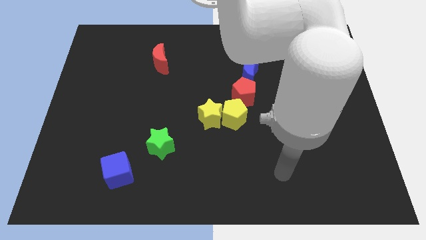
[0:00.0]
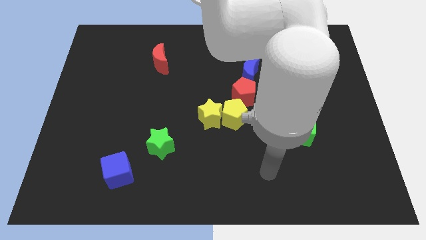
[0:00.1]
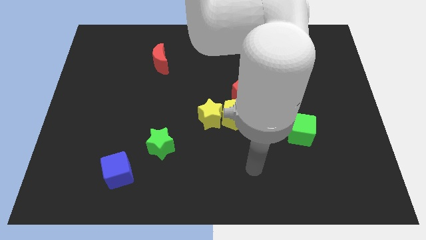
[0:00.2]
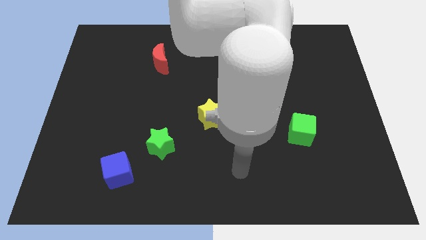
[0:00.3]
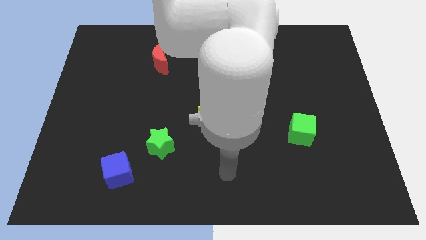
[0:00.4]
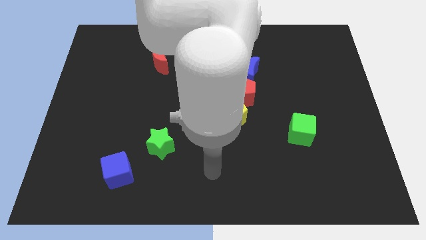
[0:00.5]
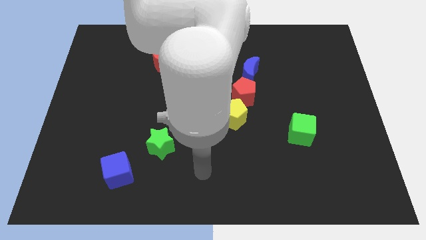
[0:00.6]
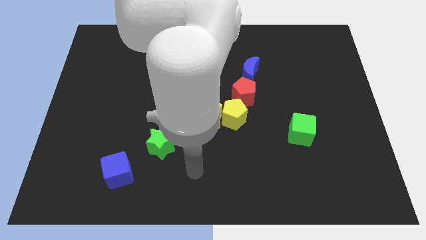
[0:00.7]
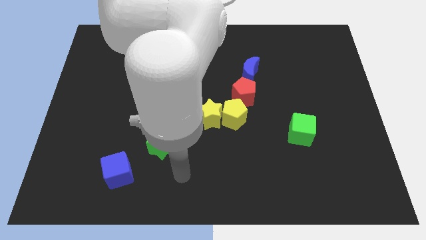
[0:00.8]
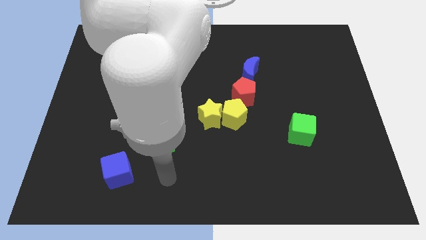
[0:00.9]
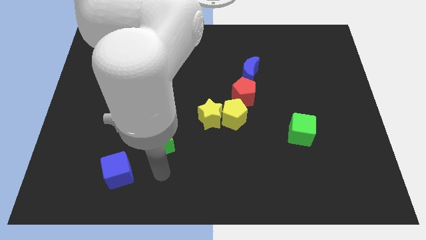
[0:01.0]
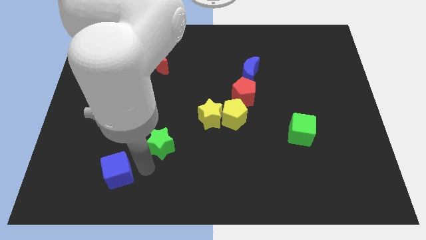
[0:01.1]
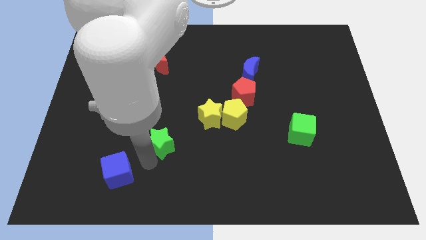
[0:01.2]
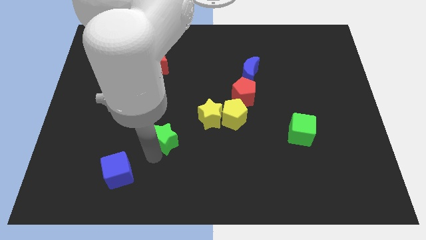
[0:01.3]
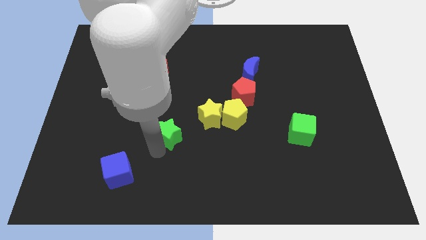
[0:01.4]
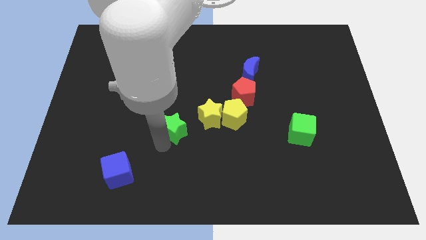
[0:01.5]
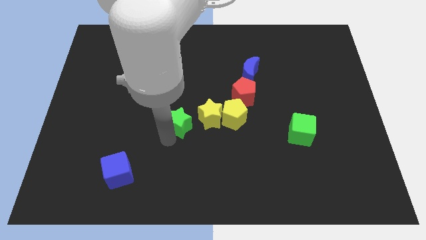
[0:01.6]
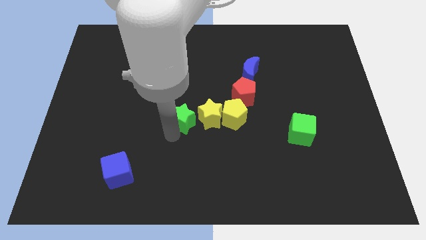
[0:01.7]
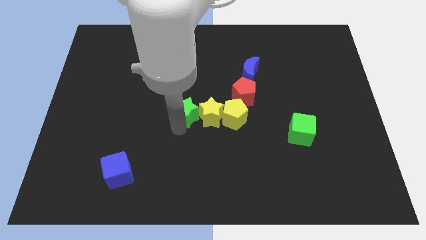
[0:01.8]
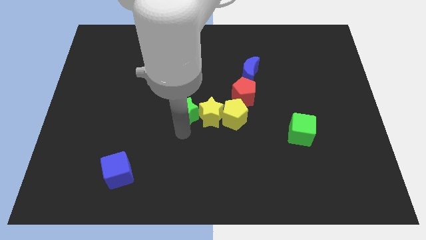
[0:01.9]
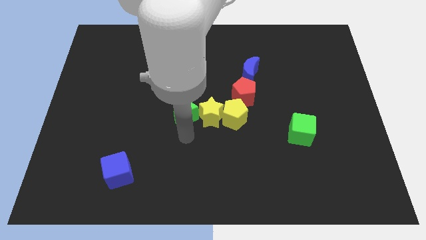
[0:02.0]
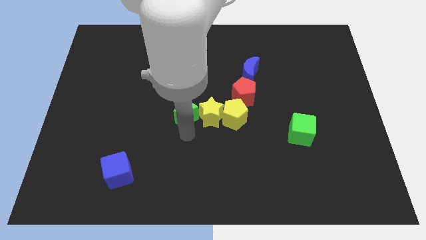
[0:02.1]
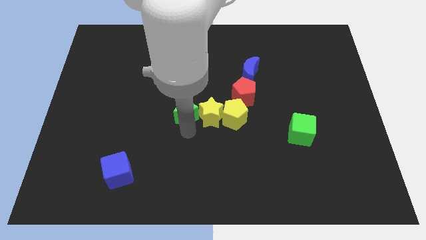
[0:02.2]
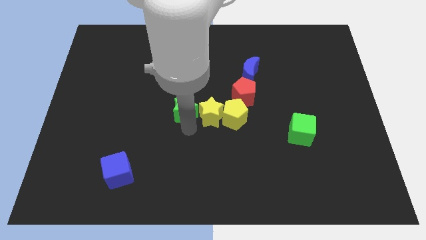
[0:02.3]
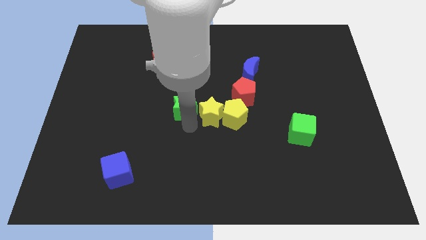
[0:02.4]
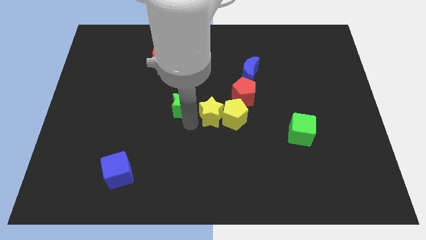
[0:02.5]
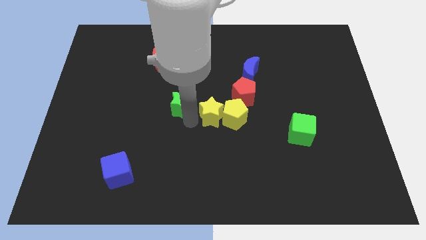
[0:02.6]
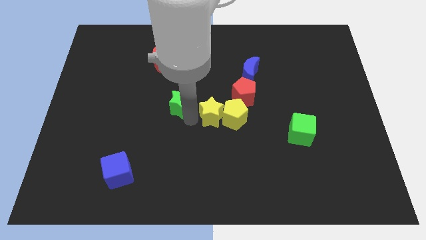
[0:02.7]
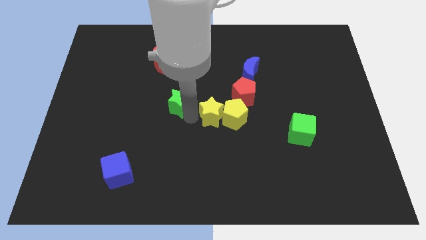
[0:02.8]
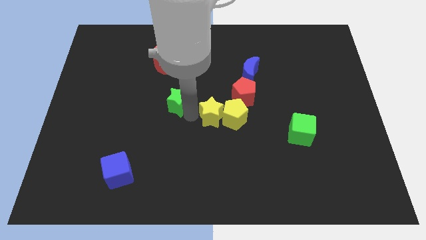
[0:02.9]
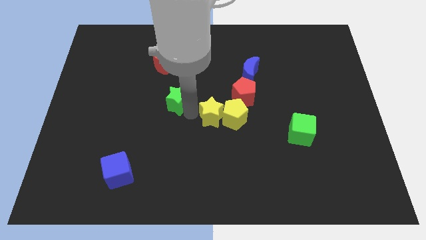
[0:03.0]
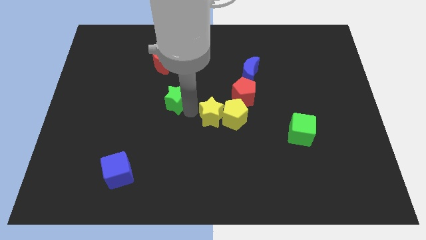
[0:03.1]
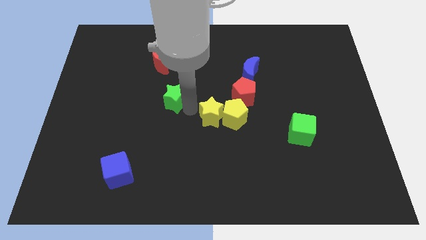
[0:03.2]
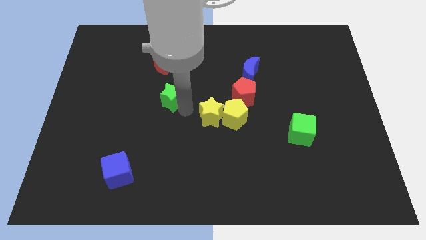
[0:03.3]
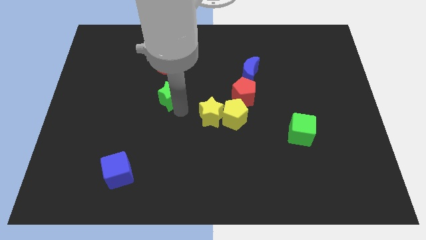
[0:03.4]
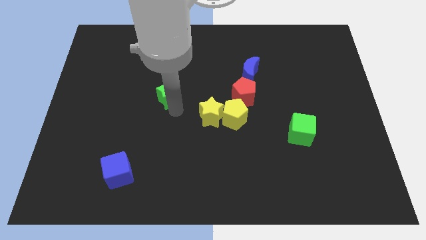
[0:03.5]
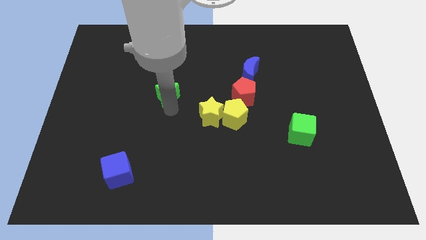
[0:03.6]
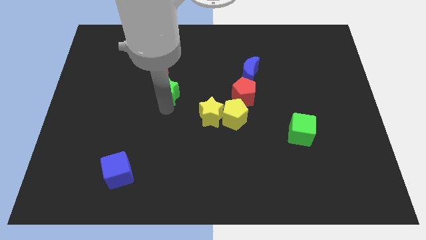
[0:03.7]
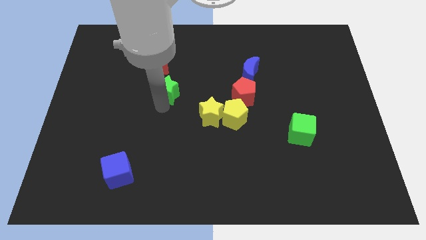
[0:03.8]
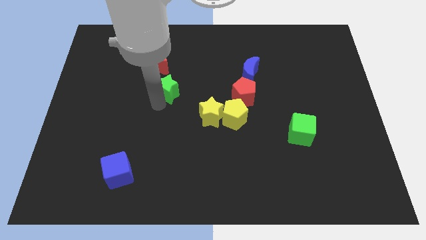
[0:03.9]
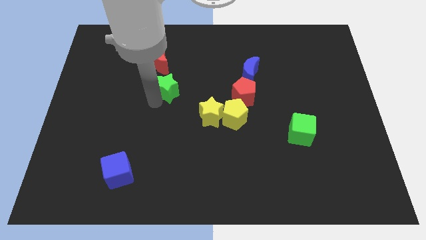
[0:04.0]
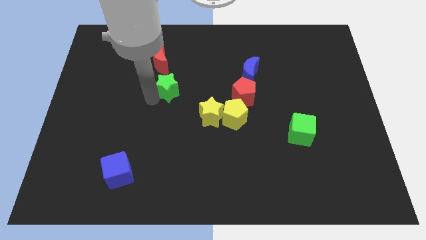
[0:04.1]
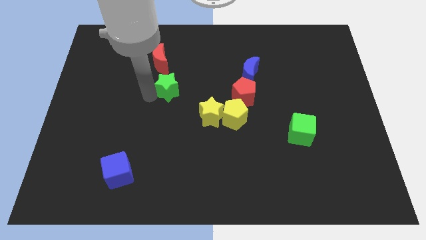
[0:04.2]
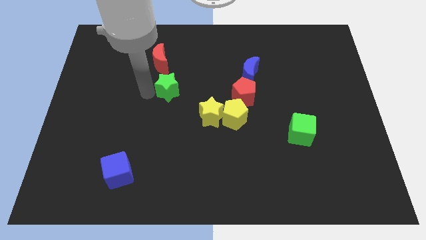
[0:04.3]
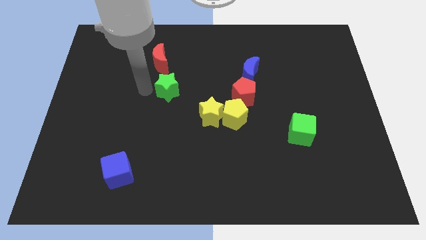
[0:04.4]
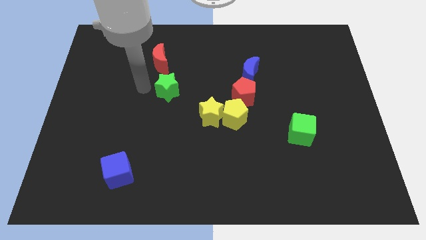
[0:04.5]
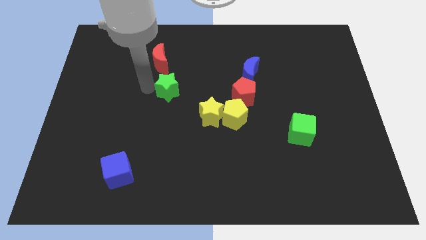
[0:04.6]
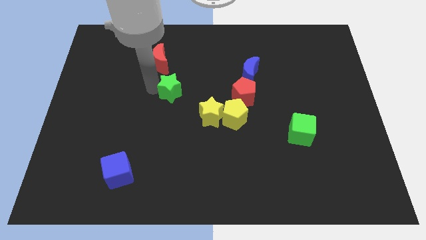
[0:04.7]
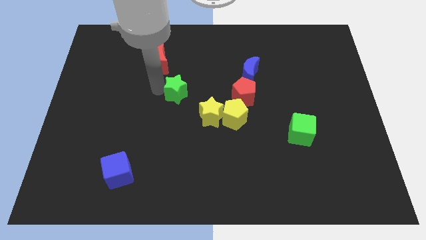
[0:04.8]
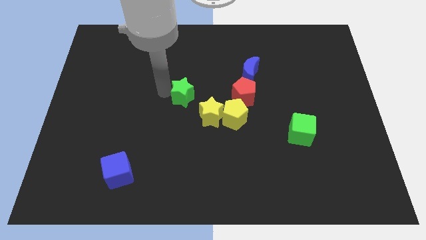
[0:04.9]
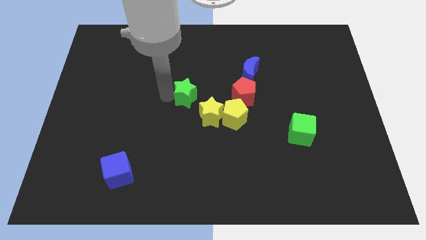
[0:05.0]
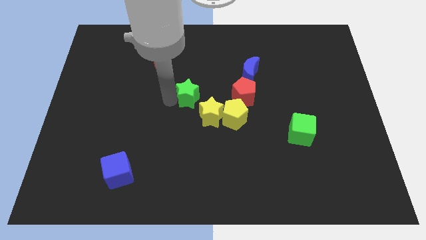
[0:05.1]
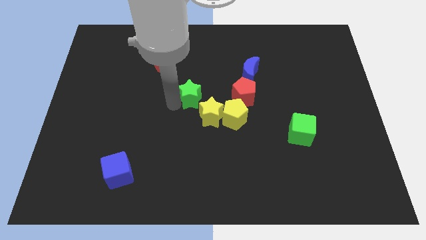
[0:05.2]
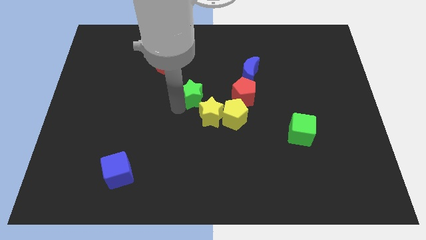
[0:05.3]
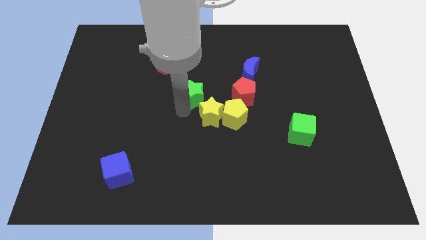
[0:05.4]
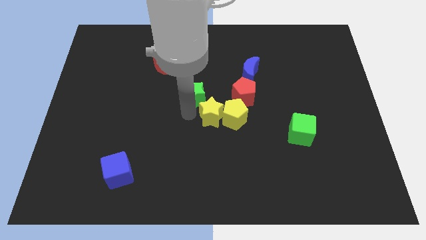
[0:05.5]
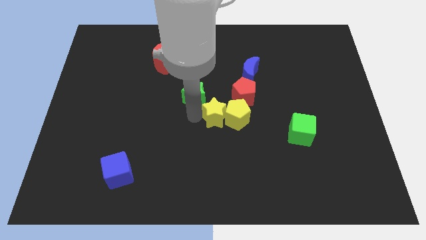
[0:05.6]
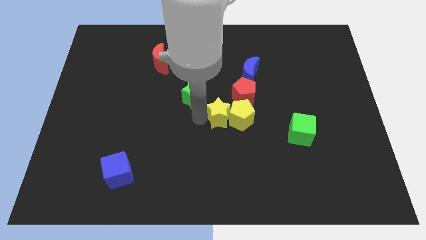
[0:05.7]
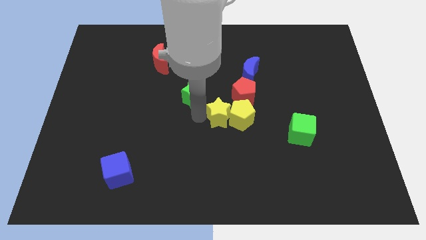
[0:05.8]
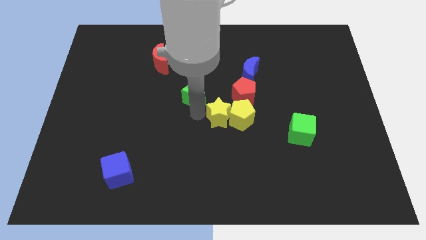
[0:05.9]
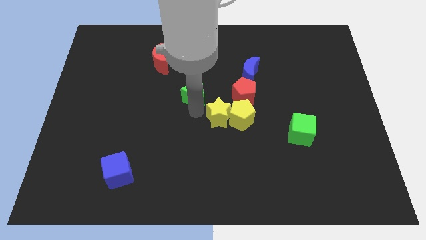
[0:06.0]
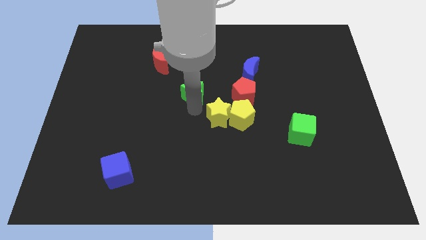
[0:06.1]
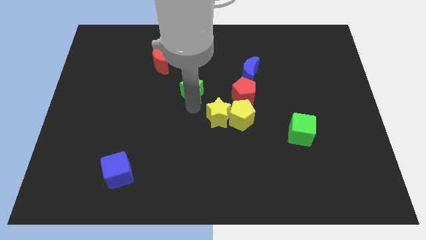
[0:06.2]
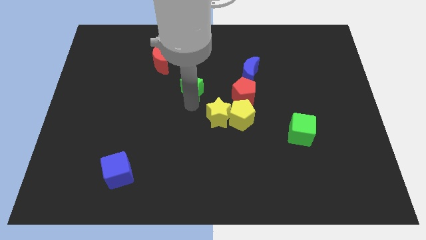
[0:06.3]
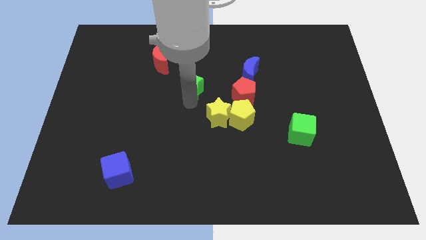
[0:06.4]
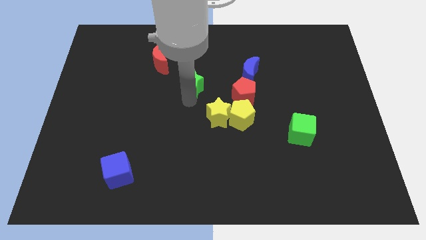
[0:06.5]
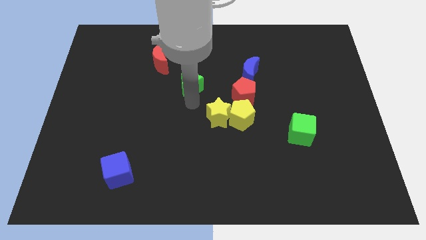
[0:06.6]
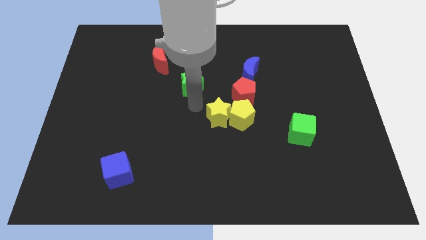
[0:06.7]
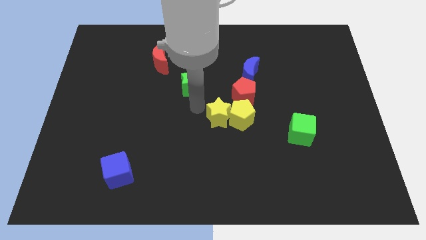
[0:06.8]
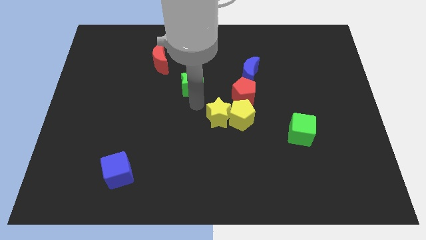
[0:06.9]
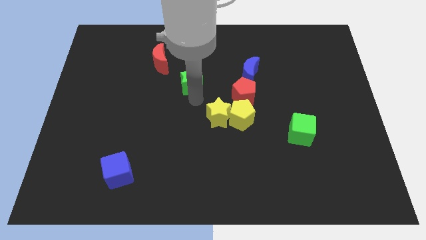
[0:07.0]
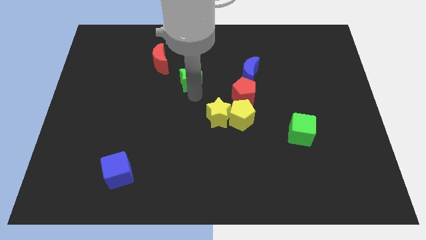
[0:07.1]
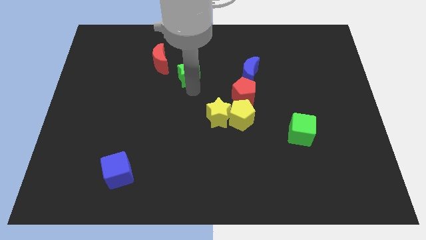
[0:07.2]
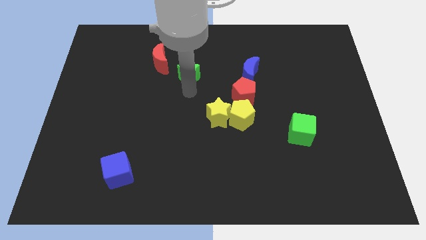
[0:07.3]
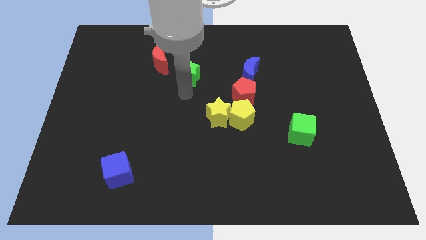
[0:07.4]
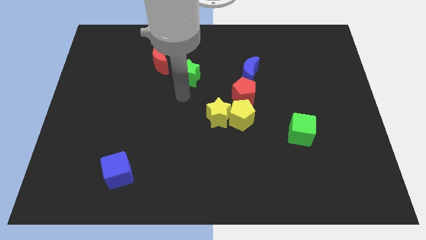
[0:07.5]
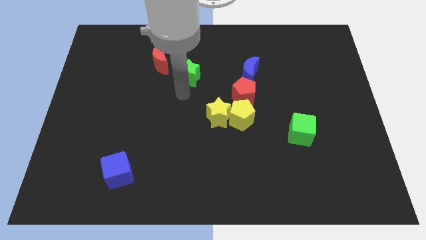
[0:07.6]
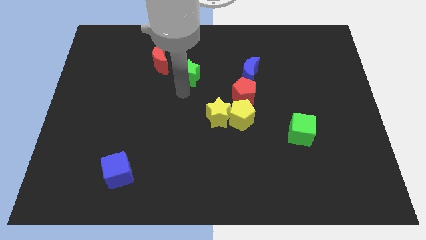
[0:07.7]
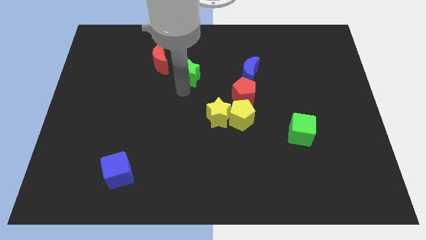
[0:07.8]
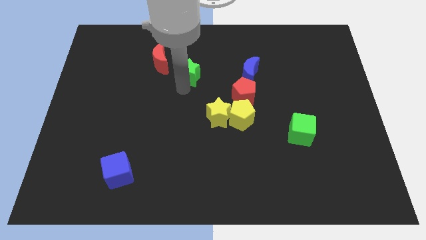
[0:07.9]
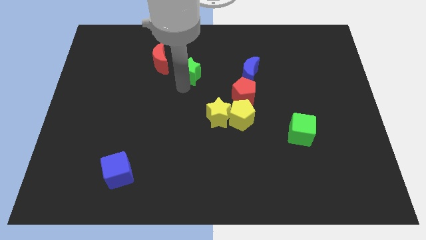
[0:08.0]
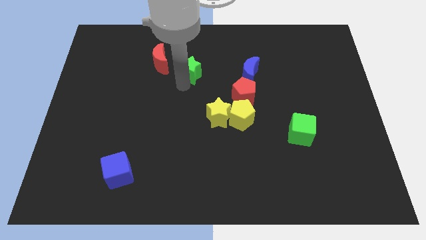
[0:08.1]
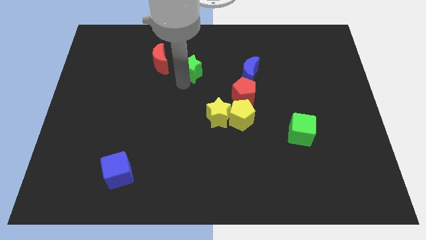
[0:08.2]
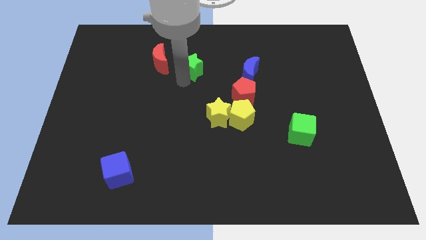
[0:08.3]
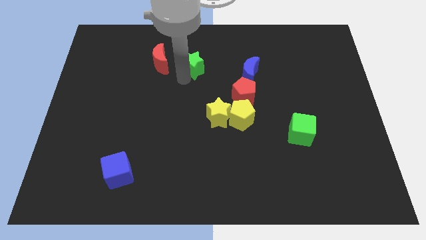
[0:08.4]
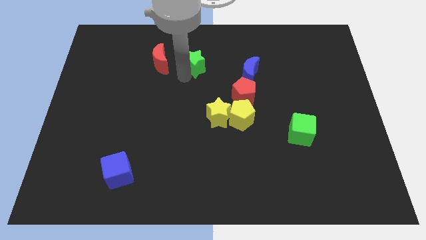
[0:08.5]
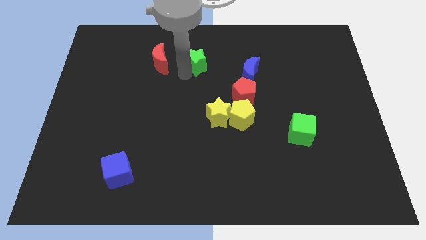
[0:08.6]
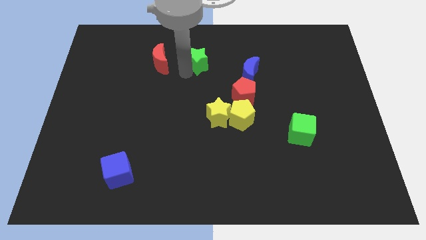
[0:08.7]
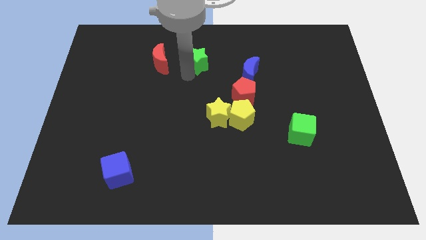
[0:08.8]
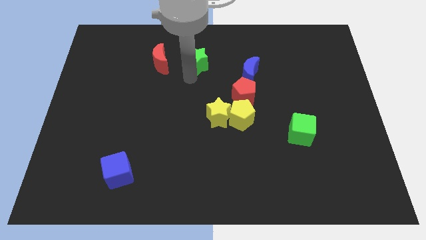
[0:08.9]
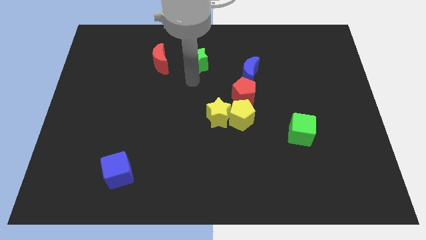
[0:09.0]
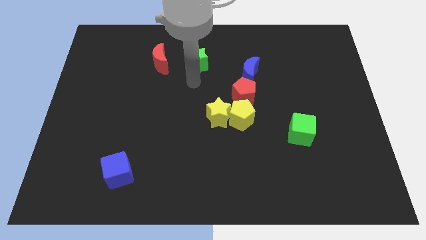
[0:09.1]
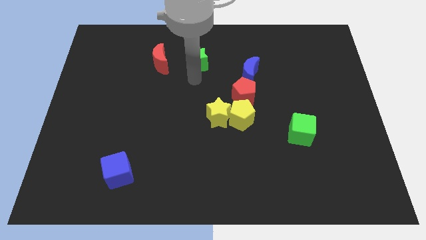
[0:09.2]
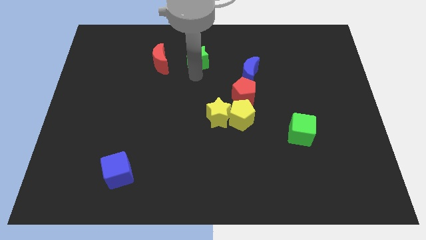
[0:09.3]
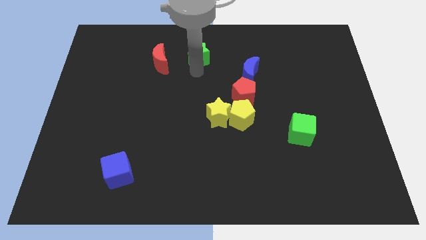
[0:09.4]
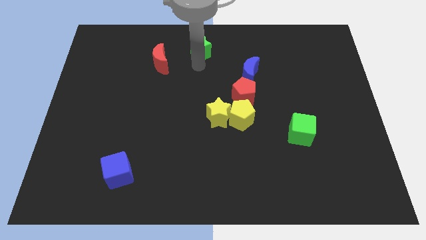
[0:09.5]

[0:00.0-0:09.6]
put the green star to the towards your base
